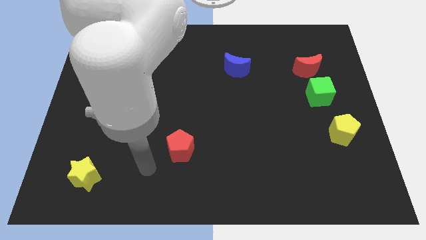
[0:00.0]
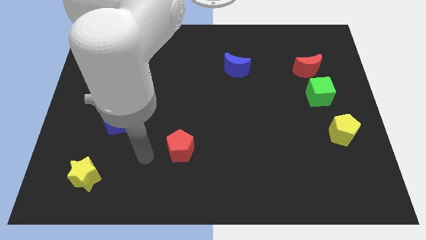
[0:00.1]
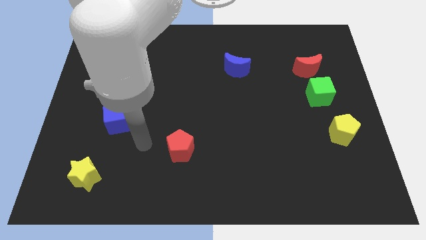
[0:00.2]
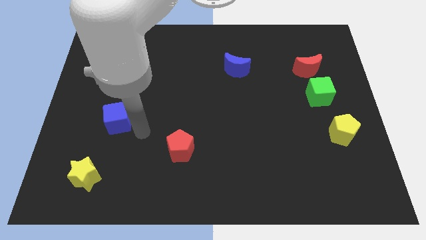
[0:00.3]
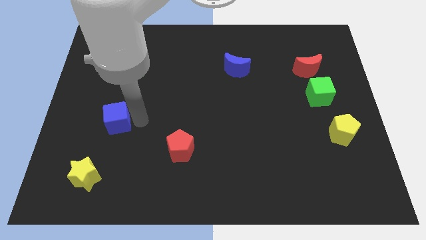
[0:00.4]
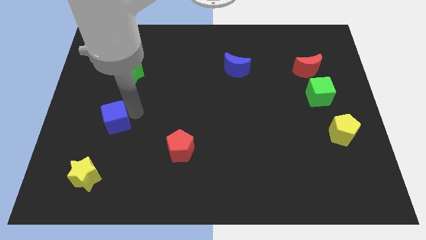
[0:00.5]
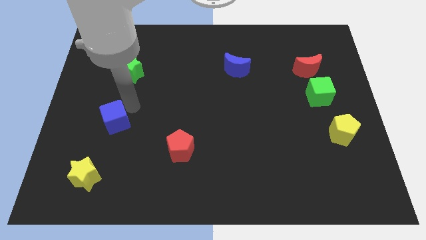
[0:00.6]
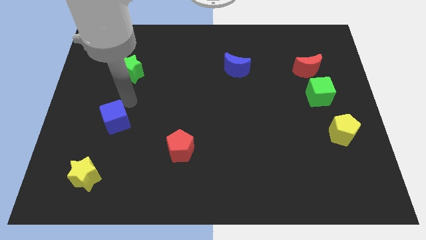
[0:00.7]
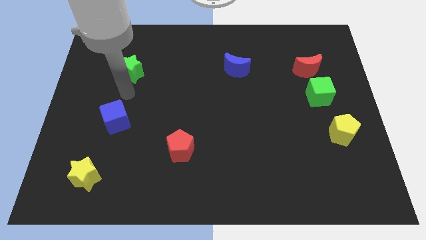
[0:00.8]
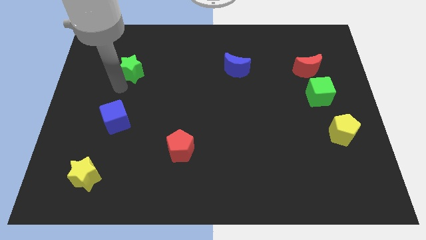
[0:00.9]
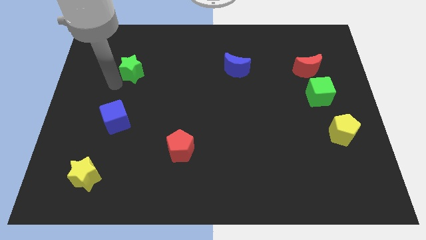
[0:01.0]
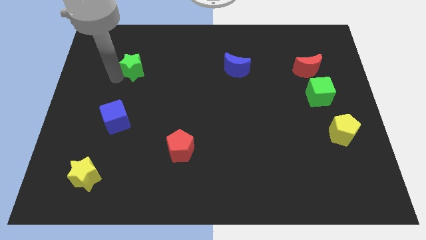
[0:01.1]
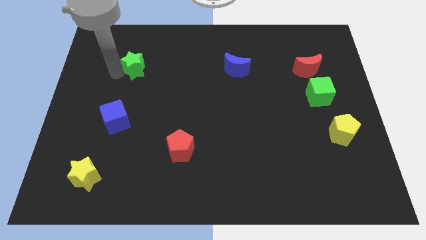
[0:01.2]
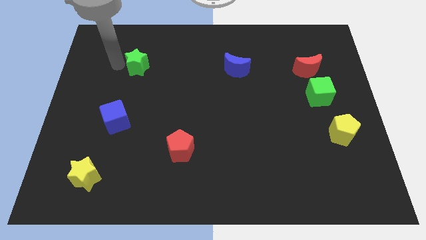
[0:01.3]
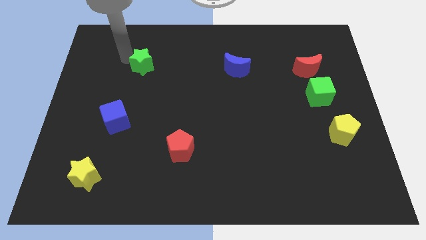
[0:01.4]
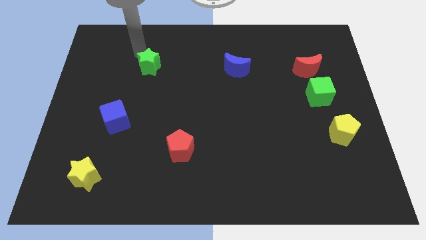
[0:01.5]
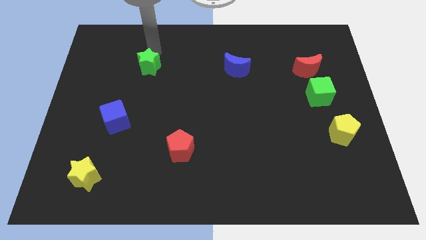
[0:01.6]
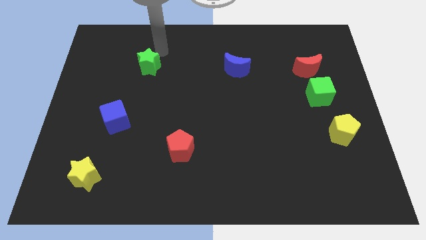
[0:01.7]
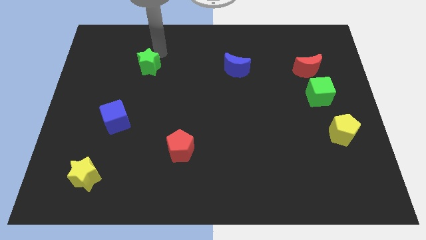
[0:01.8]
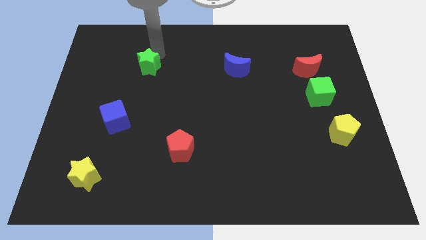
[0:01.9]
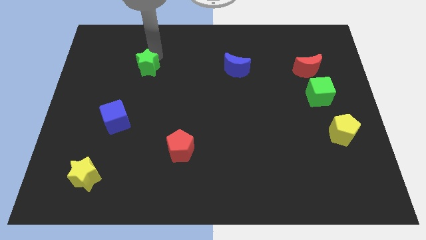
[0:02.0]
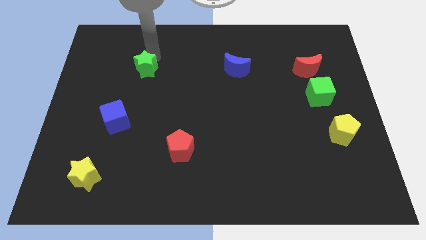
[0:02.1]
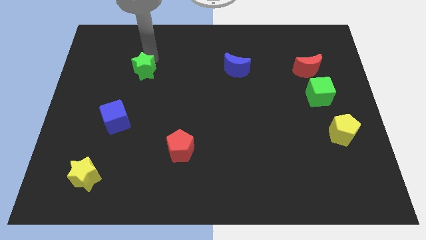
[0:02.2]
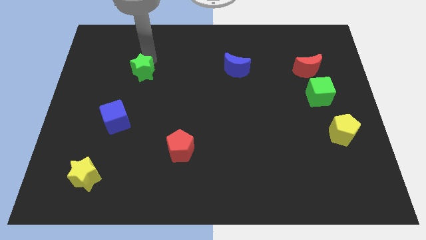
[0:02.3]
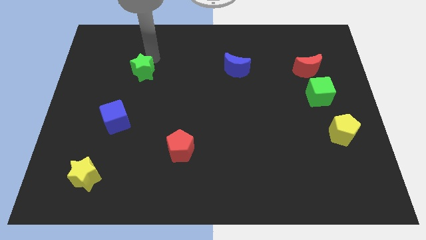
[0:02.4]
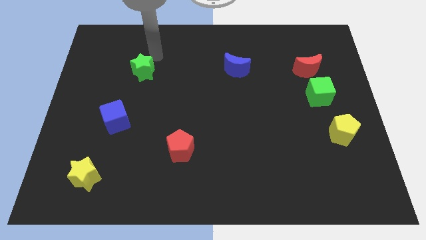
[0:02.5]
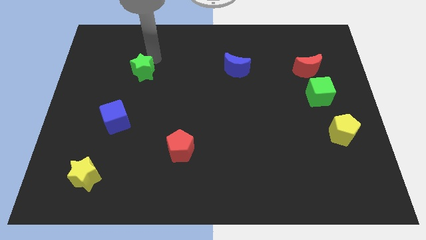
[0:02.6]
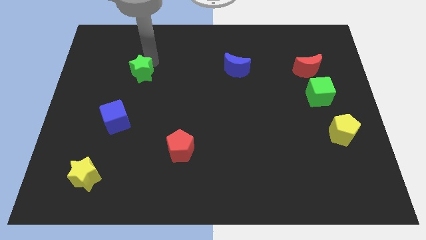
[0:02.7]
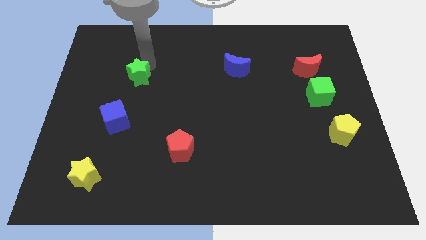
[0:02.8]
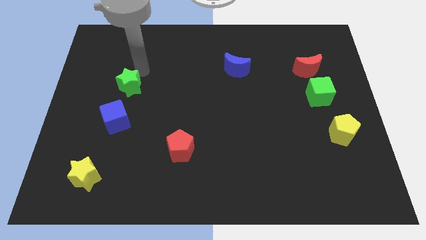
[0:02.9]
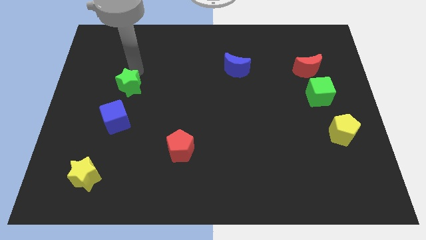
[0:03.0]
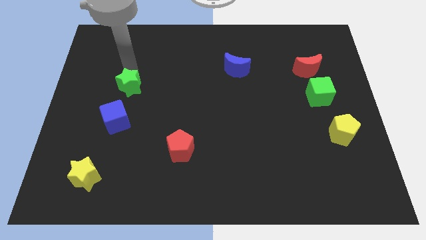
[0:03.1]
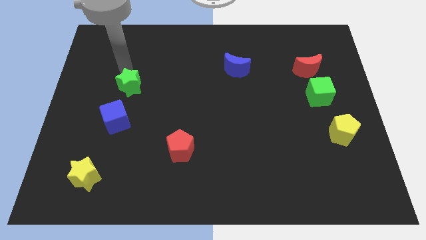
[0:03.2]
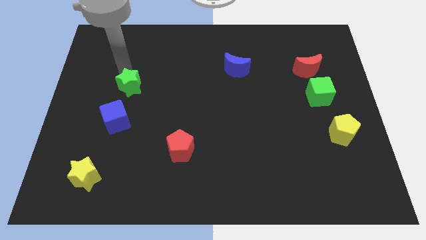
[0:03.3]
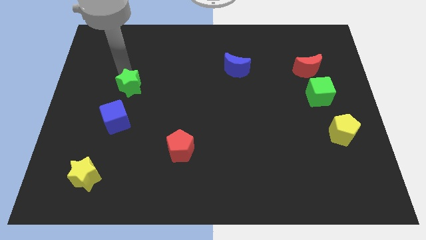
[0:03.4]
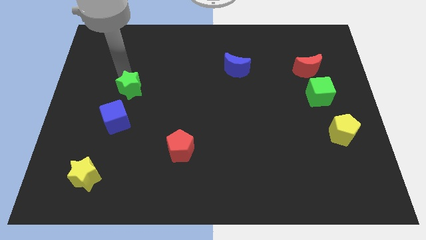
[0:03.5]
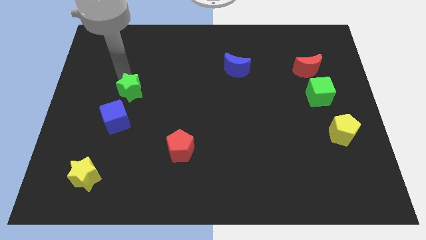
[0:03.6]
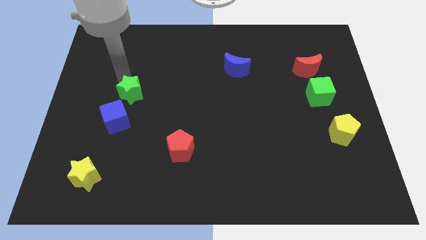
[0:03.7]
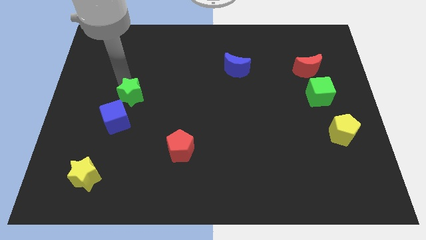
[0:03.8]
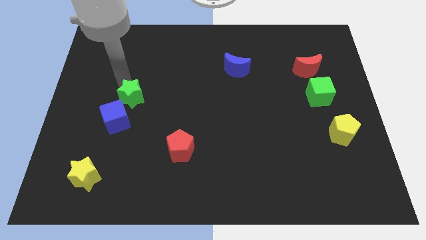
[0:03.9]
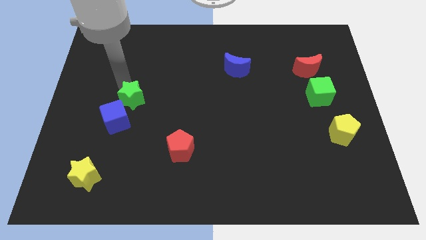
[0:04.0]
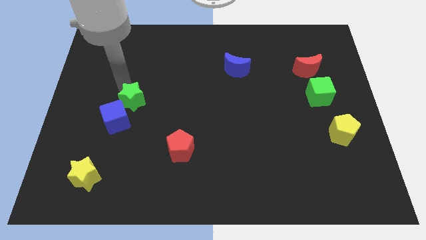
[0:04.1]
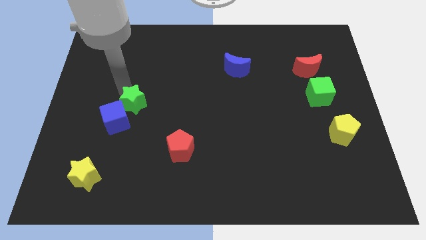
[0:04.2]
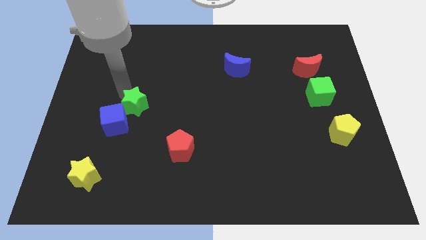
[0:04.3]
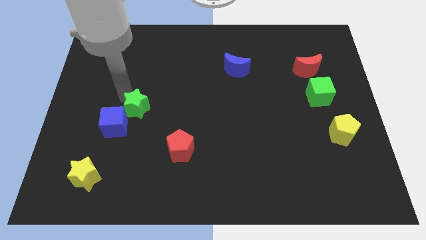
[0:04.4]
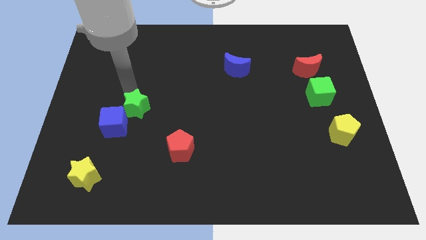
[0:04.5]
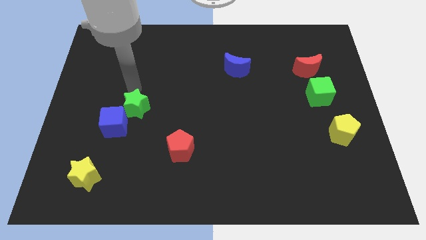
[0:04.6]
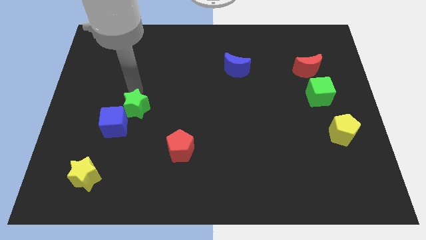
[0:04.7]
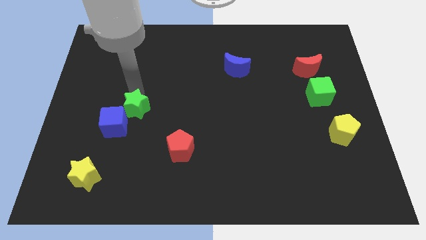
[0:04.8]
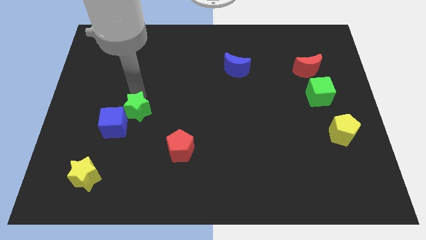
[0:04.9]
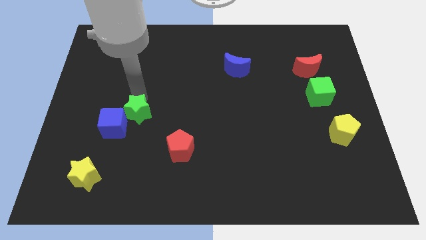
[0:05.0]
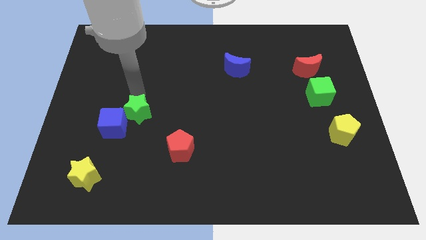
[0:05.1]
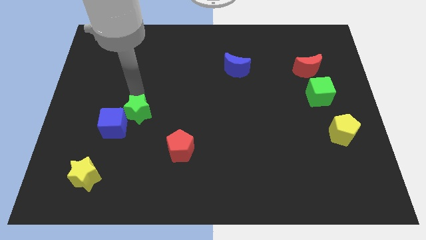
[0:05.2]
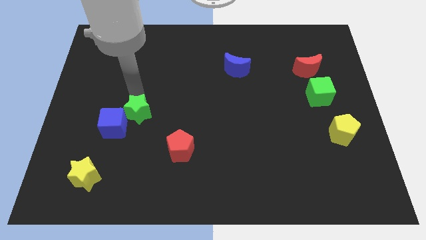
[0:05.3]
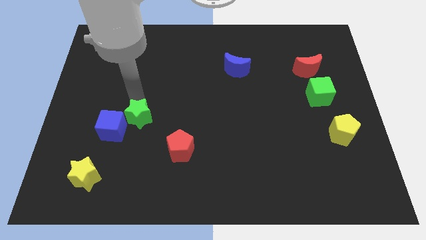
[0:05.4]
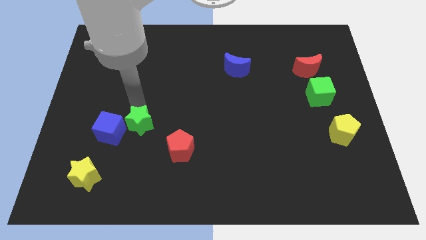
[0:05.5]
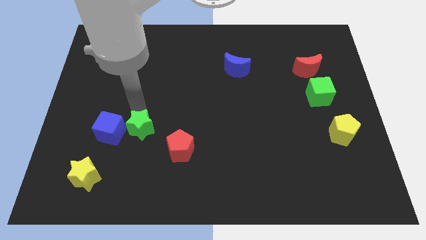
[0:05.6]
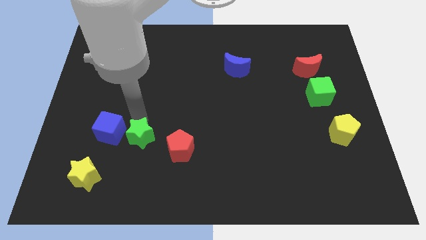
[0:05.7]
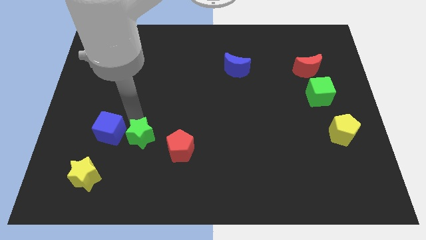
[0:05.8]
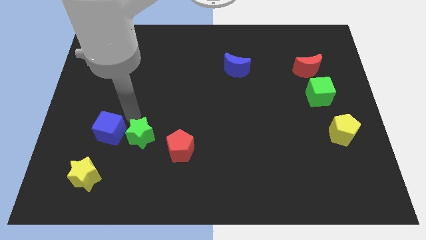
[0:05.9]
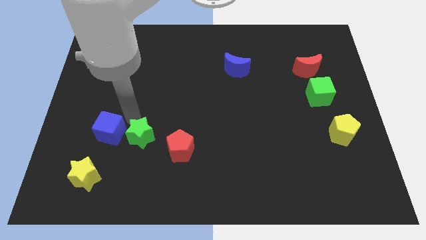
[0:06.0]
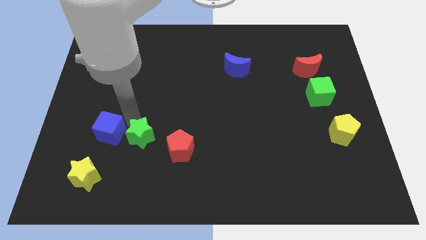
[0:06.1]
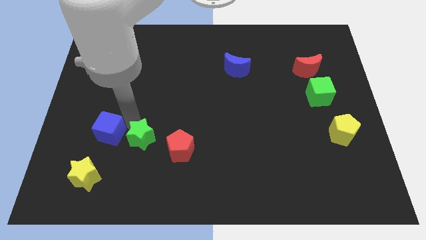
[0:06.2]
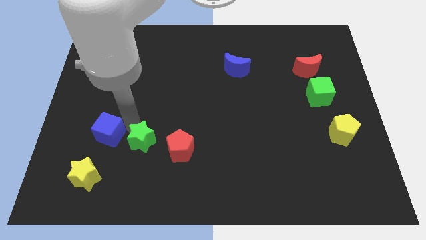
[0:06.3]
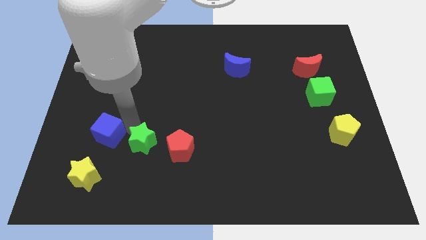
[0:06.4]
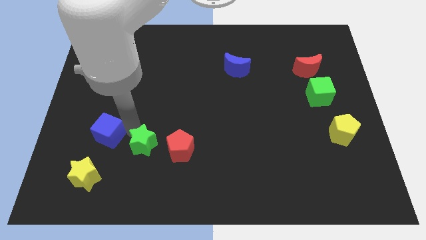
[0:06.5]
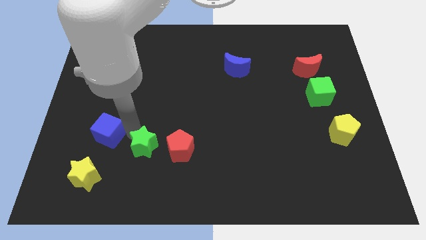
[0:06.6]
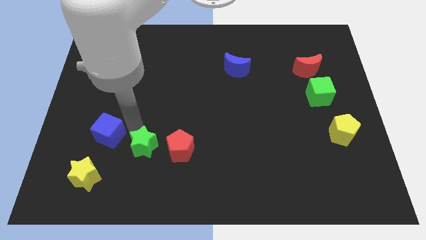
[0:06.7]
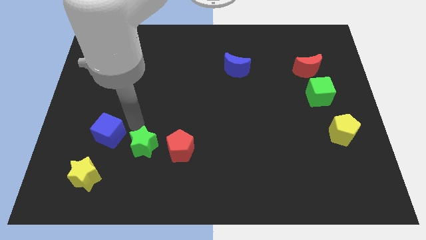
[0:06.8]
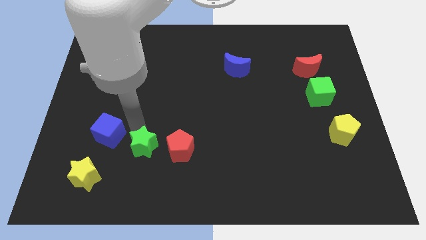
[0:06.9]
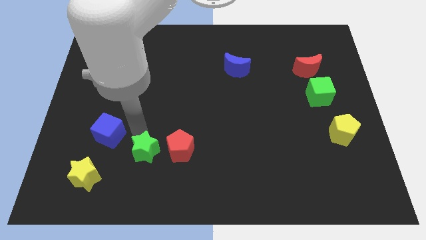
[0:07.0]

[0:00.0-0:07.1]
move the green star to the bottom left of the red pentagon
